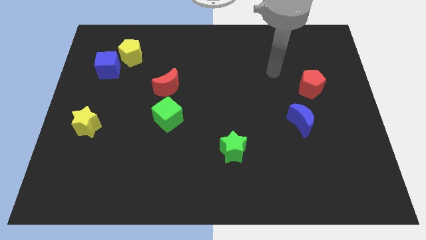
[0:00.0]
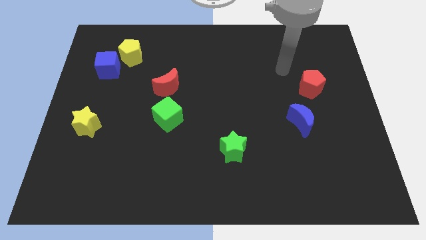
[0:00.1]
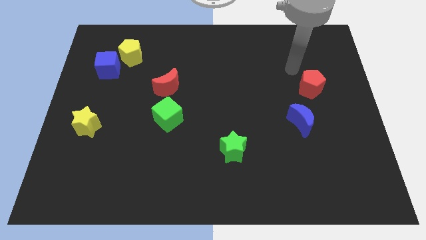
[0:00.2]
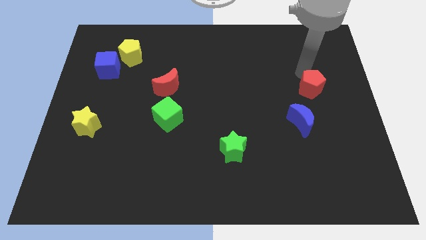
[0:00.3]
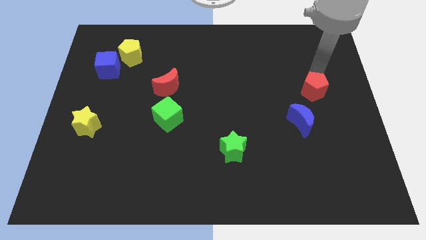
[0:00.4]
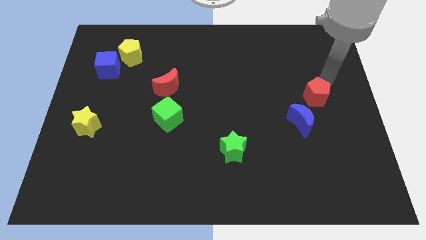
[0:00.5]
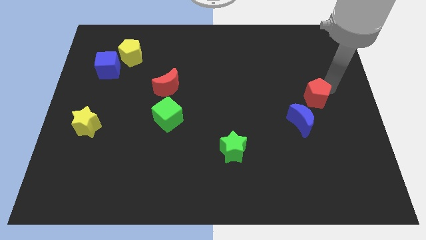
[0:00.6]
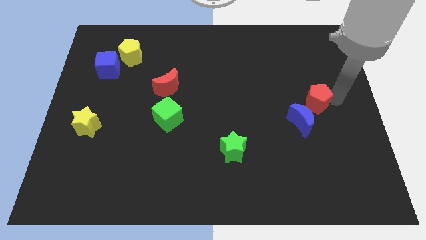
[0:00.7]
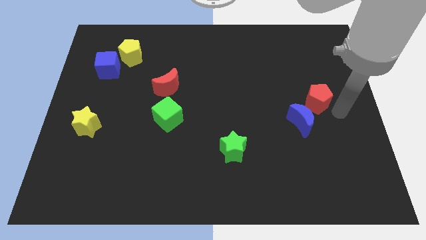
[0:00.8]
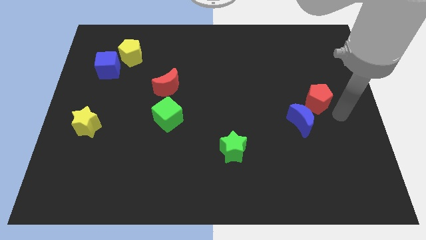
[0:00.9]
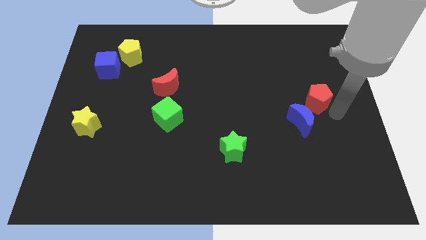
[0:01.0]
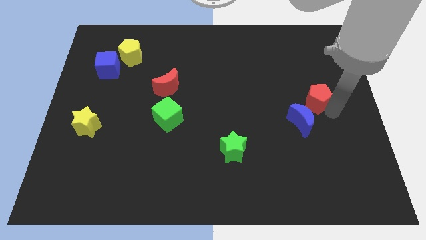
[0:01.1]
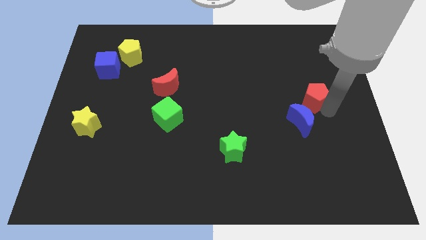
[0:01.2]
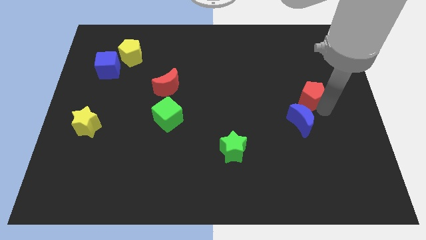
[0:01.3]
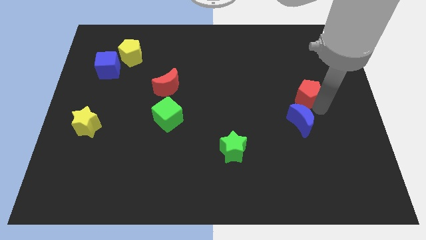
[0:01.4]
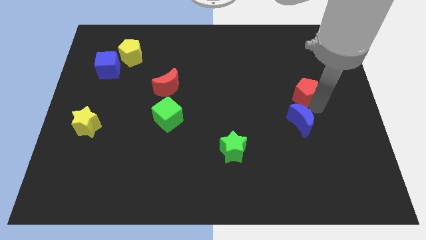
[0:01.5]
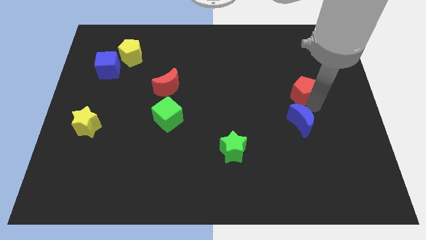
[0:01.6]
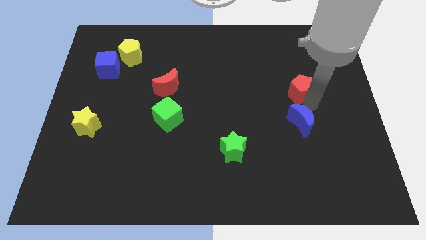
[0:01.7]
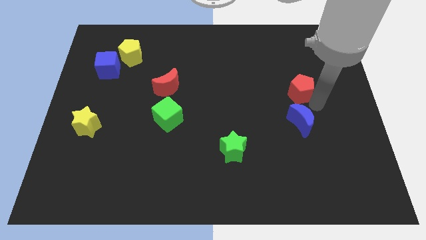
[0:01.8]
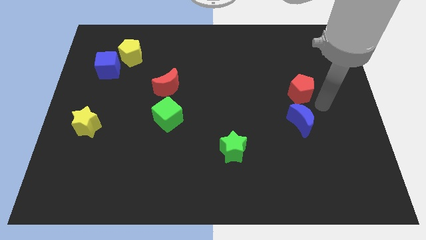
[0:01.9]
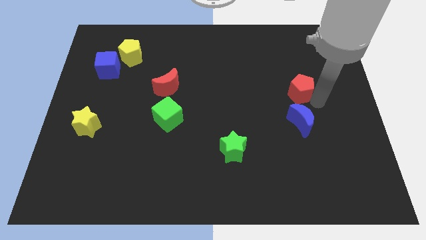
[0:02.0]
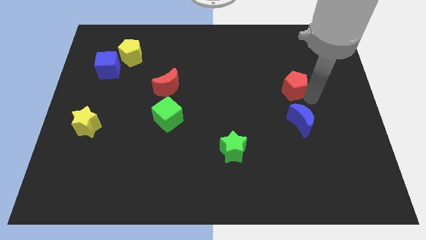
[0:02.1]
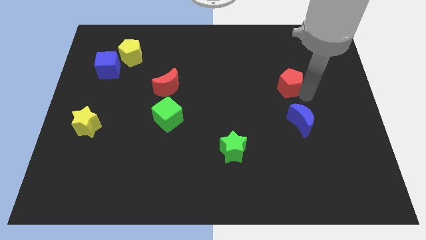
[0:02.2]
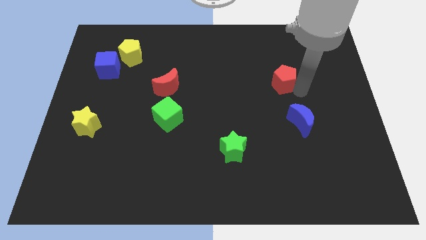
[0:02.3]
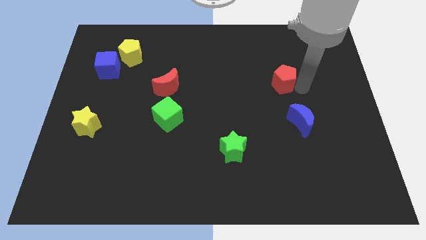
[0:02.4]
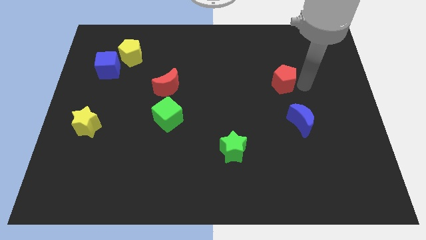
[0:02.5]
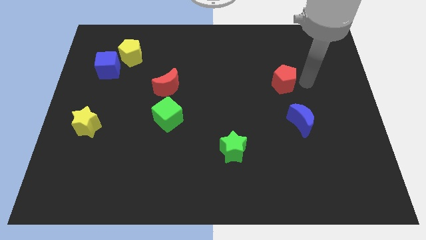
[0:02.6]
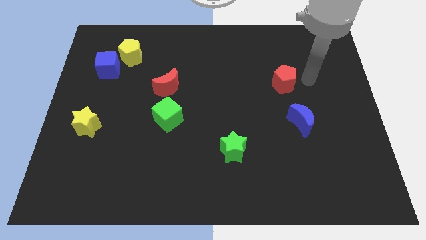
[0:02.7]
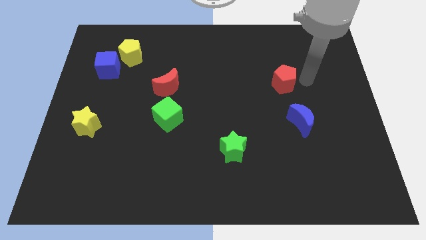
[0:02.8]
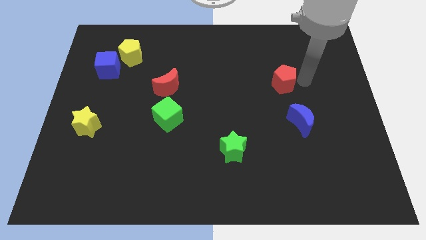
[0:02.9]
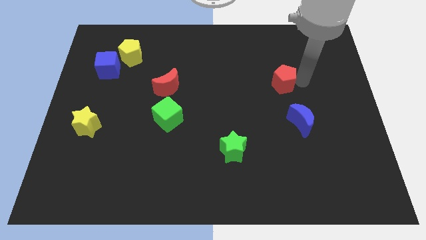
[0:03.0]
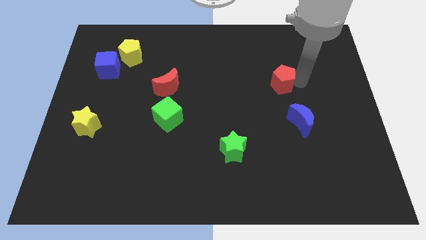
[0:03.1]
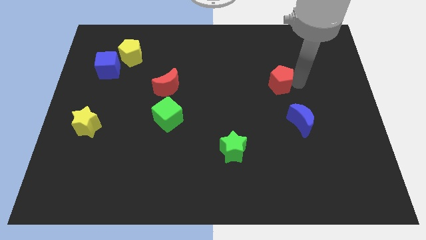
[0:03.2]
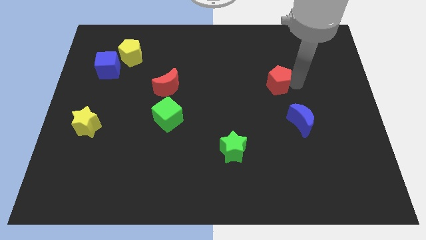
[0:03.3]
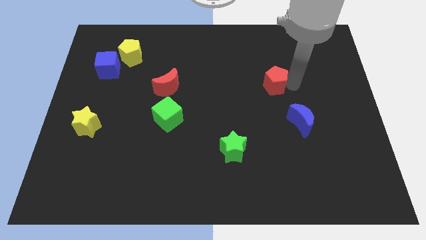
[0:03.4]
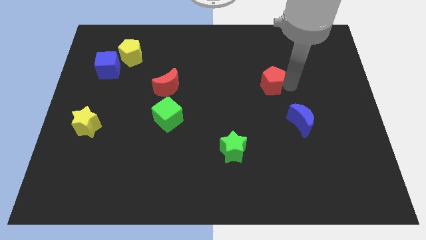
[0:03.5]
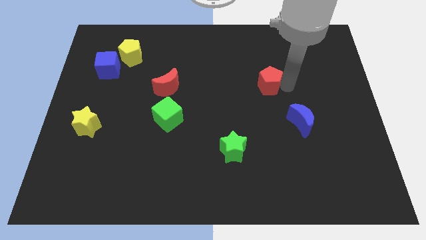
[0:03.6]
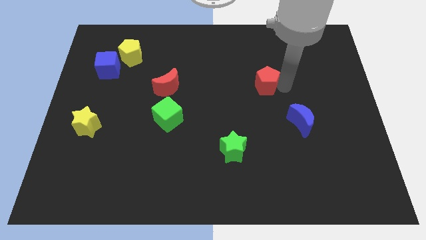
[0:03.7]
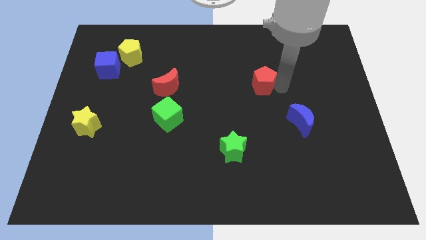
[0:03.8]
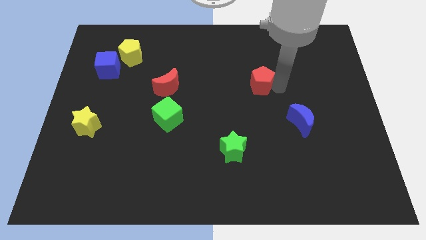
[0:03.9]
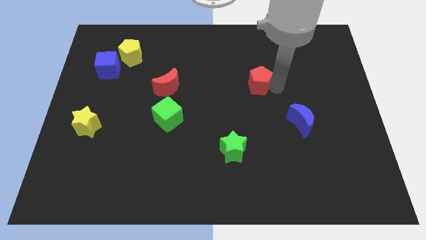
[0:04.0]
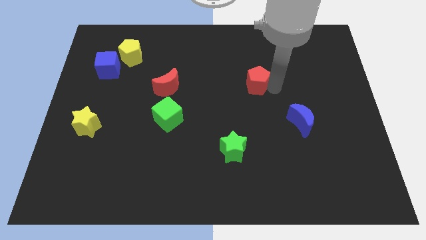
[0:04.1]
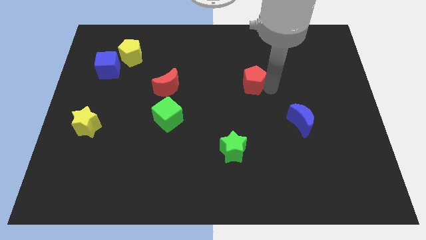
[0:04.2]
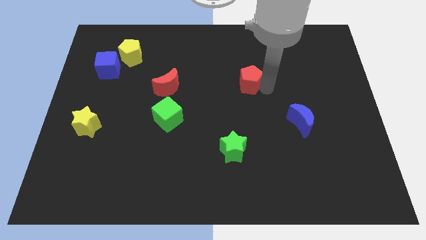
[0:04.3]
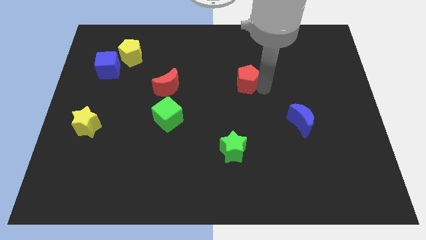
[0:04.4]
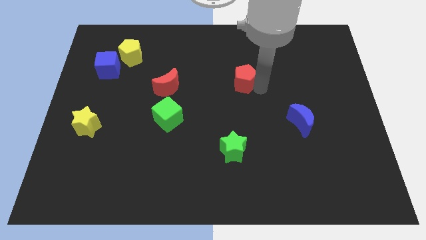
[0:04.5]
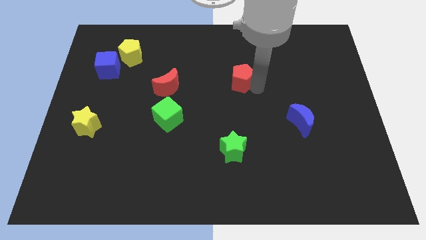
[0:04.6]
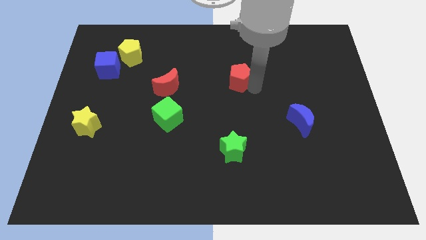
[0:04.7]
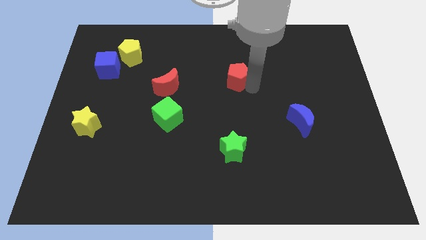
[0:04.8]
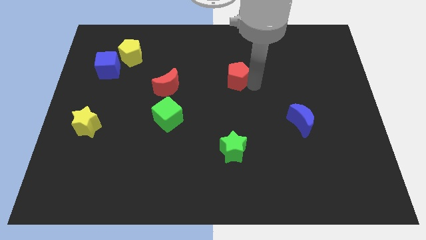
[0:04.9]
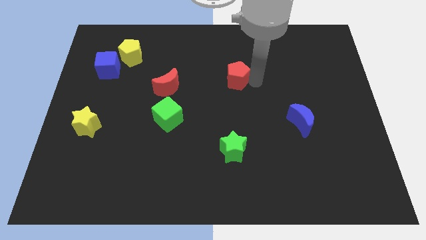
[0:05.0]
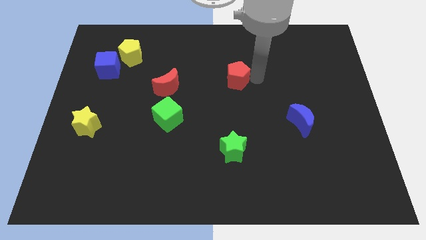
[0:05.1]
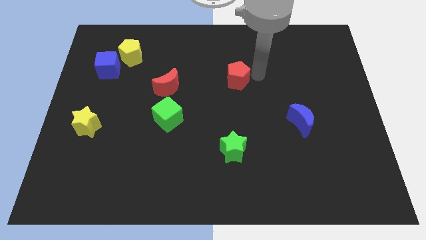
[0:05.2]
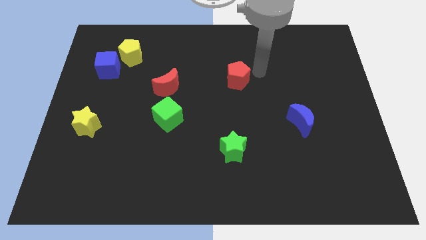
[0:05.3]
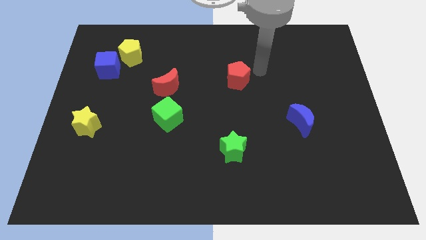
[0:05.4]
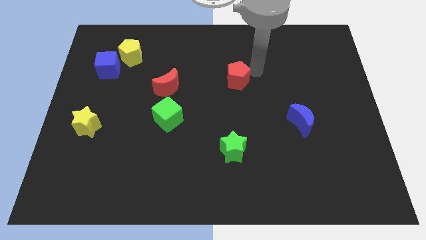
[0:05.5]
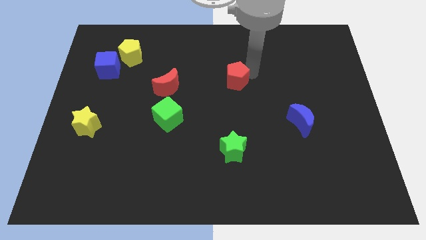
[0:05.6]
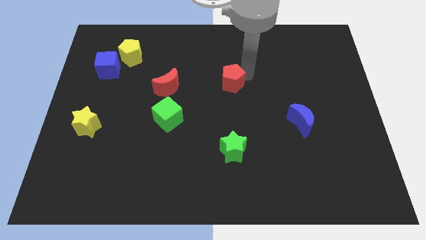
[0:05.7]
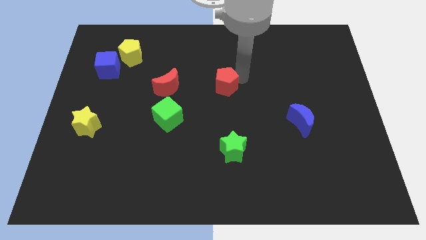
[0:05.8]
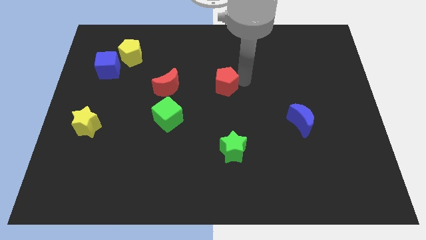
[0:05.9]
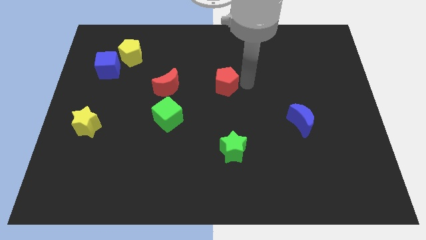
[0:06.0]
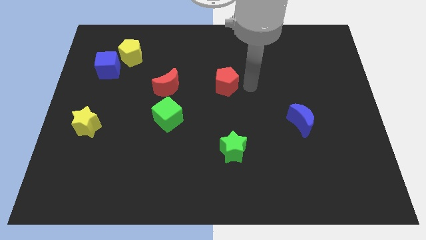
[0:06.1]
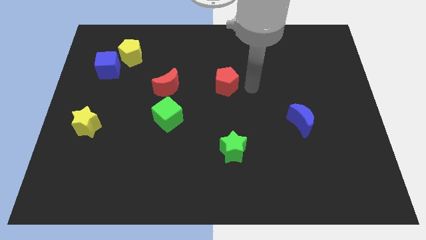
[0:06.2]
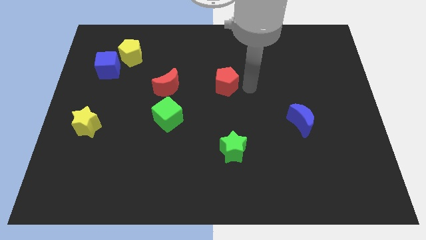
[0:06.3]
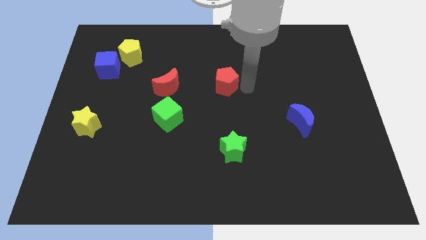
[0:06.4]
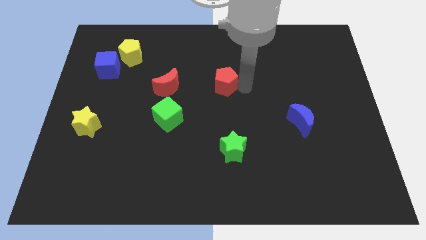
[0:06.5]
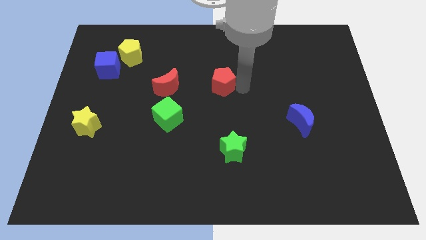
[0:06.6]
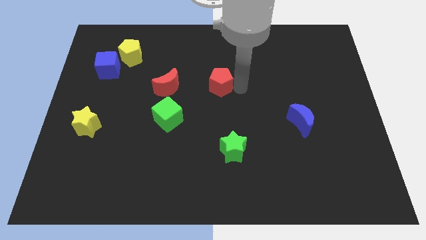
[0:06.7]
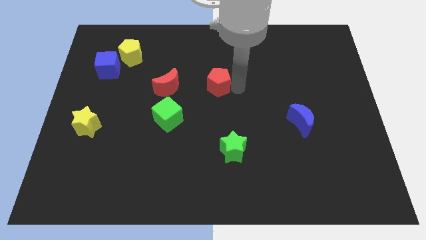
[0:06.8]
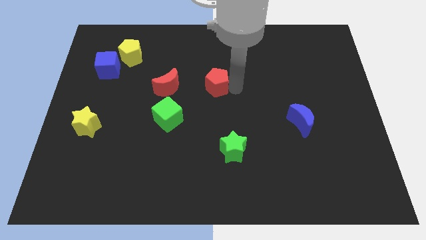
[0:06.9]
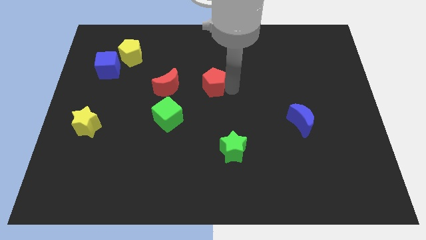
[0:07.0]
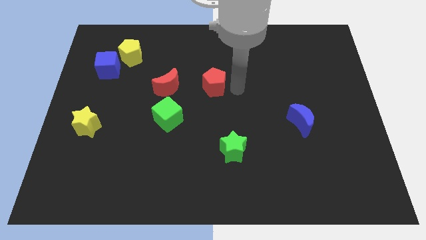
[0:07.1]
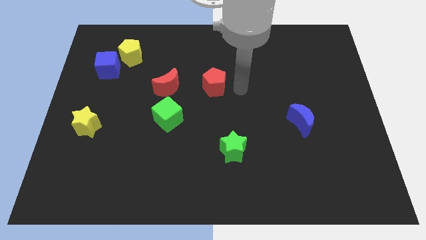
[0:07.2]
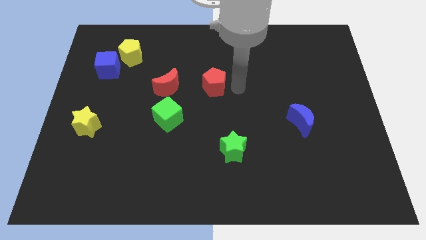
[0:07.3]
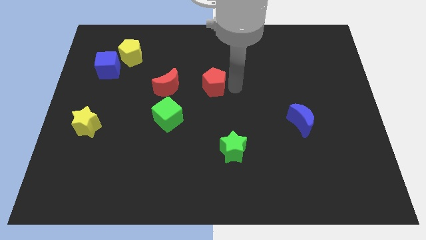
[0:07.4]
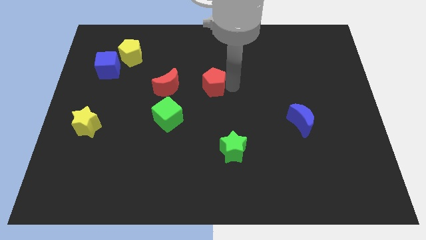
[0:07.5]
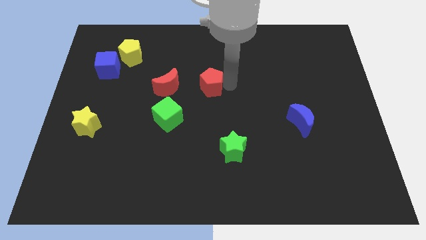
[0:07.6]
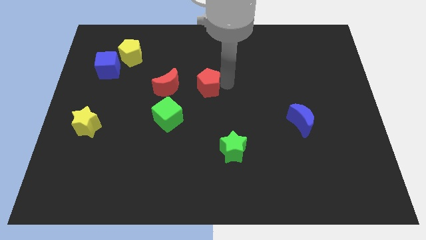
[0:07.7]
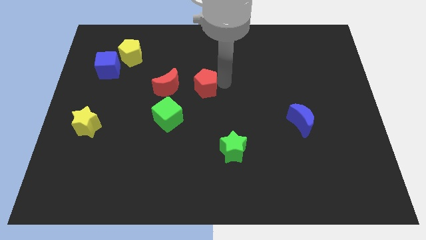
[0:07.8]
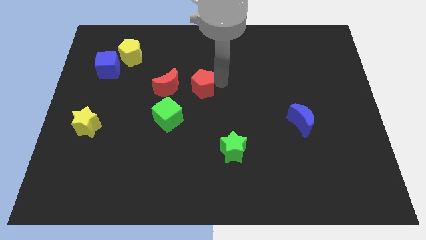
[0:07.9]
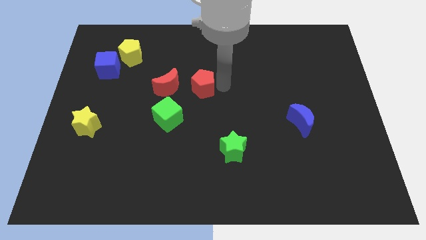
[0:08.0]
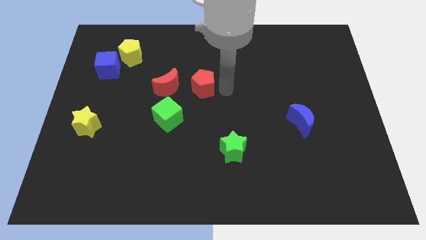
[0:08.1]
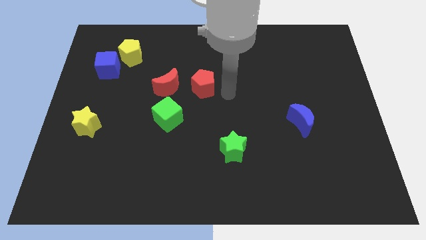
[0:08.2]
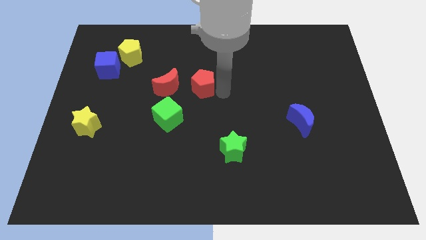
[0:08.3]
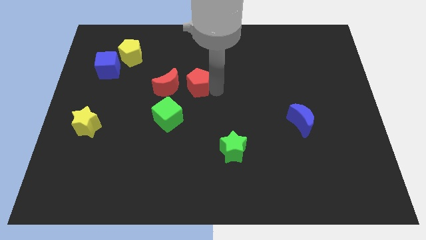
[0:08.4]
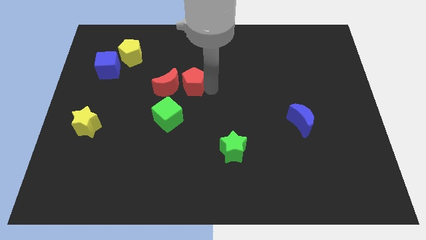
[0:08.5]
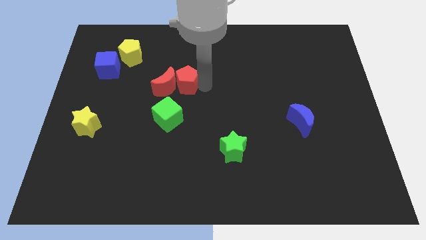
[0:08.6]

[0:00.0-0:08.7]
push the red pentagon close to the red moon
